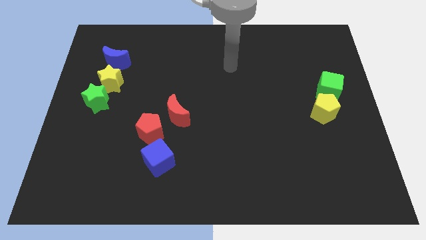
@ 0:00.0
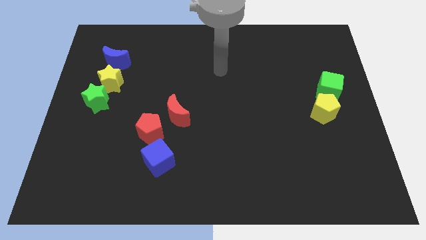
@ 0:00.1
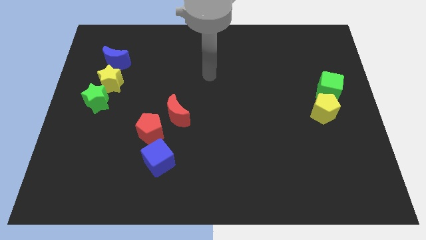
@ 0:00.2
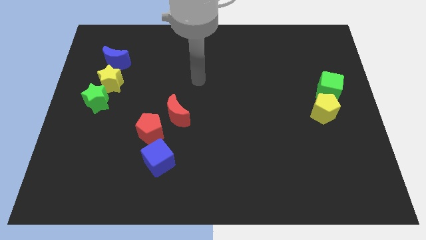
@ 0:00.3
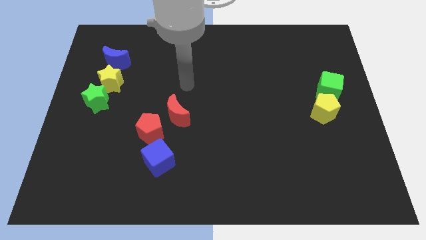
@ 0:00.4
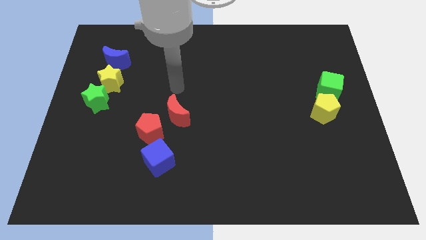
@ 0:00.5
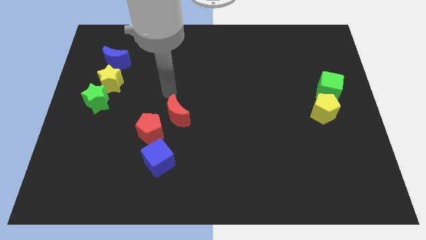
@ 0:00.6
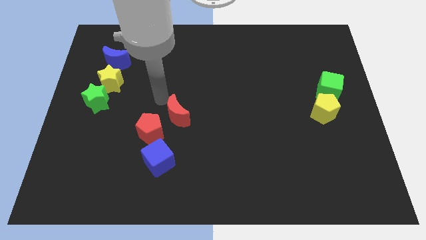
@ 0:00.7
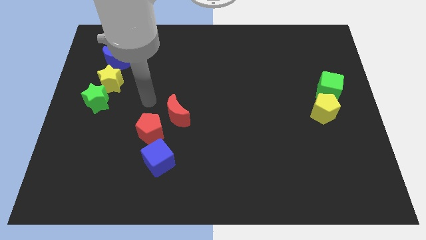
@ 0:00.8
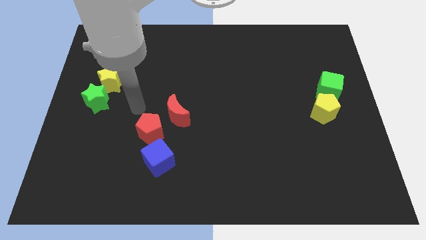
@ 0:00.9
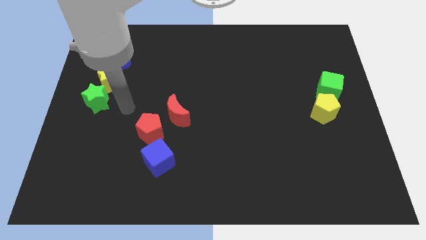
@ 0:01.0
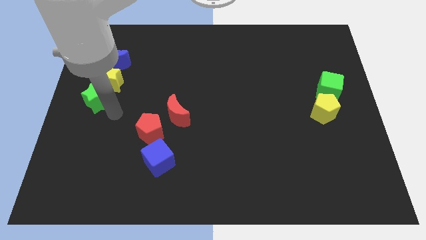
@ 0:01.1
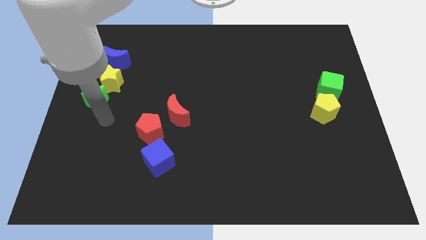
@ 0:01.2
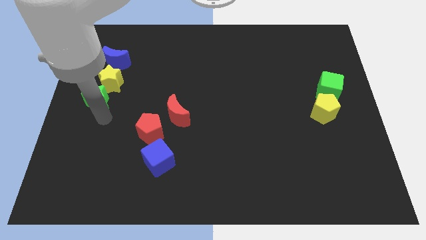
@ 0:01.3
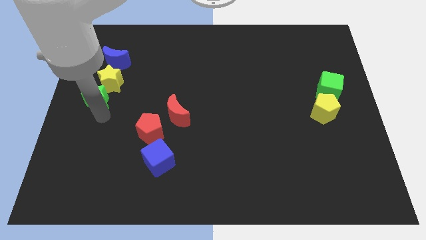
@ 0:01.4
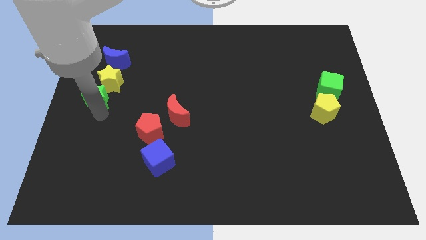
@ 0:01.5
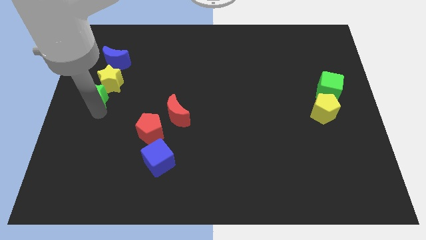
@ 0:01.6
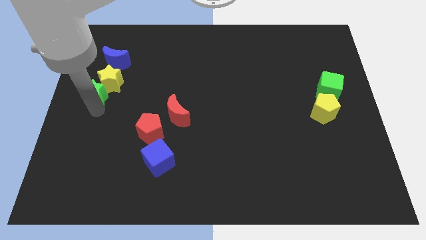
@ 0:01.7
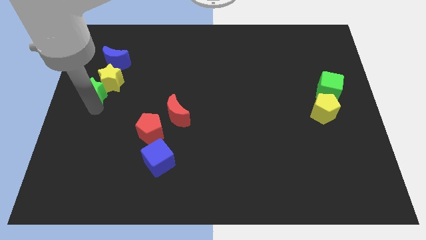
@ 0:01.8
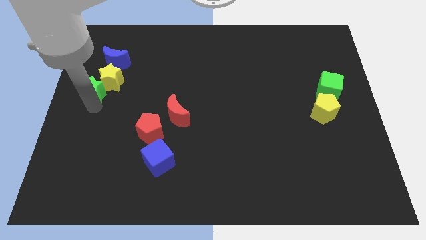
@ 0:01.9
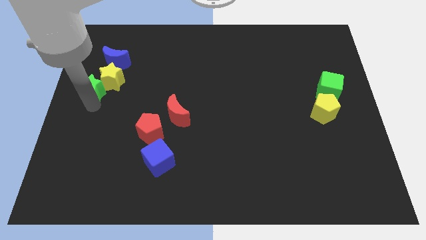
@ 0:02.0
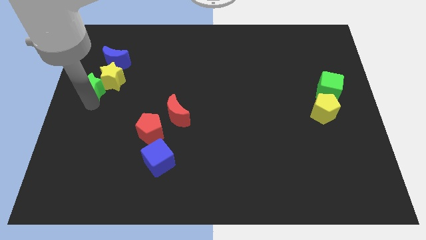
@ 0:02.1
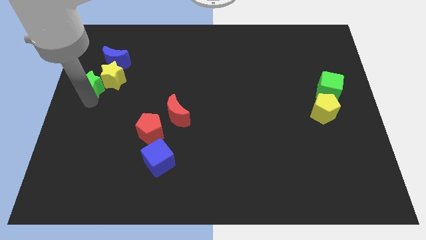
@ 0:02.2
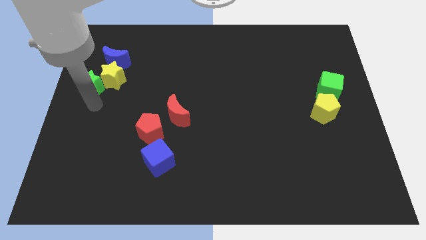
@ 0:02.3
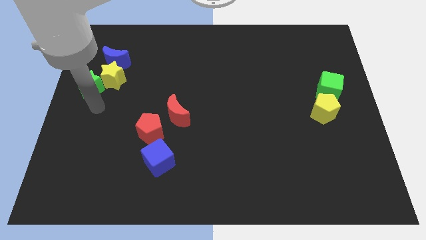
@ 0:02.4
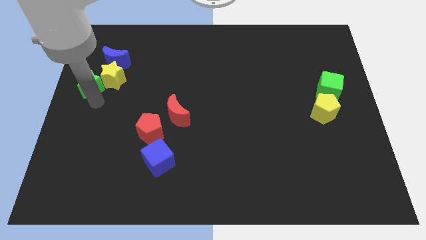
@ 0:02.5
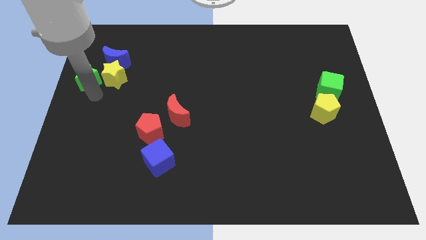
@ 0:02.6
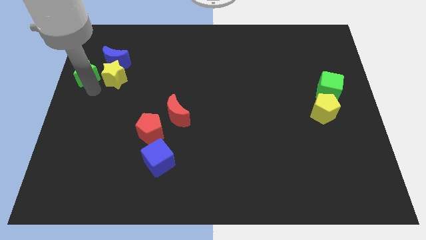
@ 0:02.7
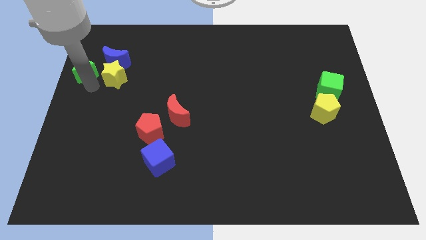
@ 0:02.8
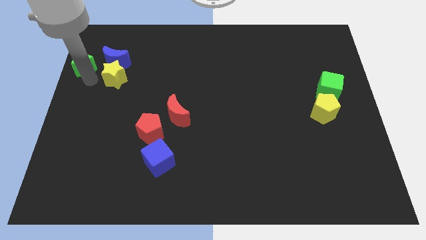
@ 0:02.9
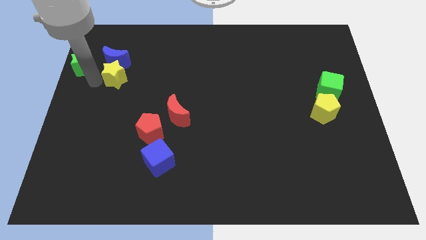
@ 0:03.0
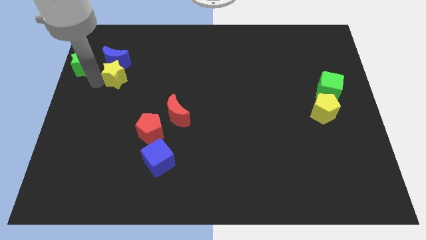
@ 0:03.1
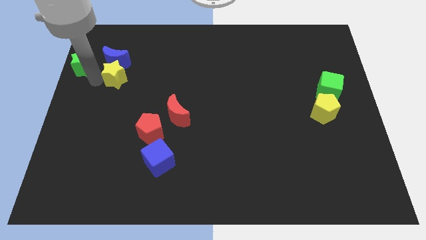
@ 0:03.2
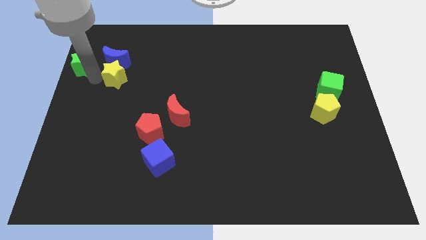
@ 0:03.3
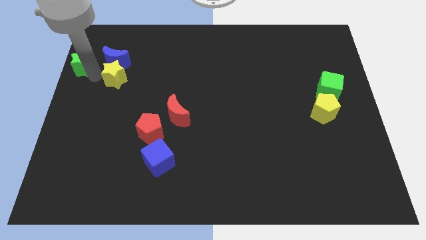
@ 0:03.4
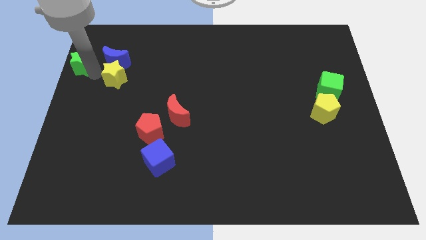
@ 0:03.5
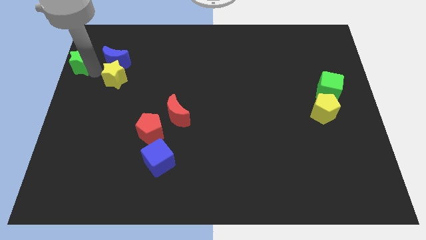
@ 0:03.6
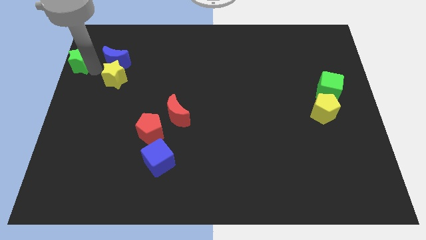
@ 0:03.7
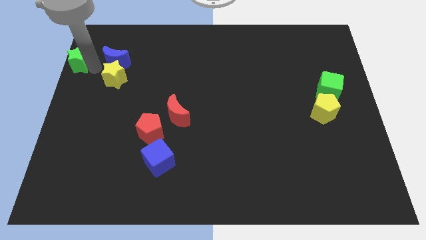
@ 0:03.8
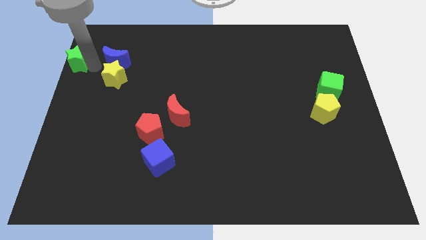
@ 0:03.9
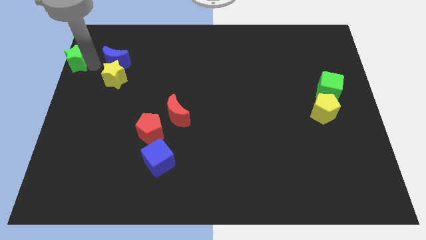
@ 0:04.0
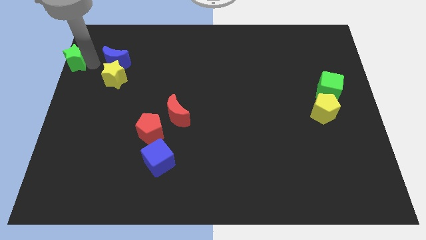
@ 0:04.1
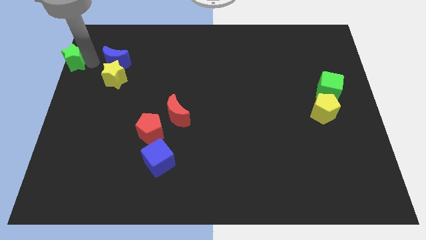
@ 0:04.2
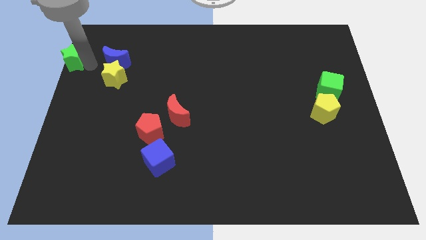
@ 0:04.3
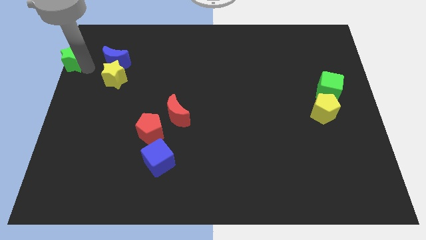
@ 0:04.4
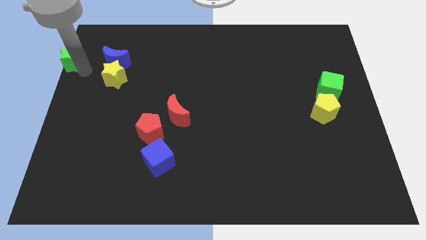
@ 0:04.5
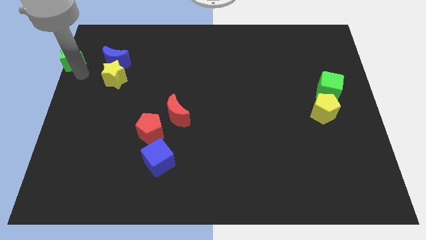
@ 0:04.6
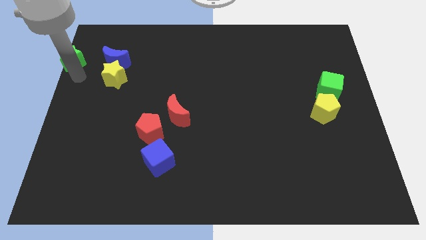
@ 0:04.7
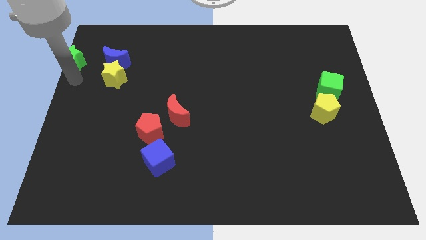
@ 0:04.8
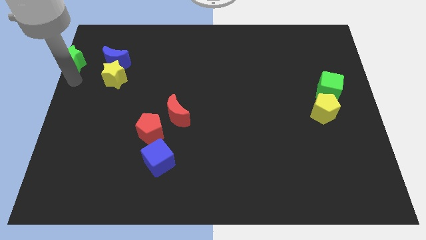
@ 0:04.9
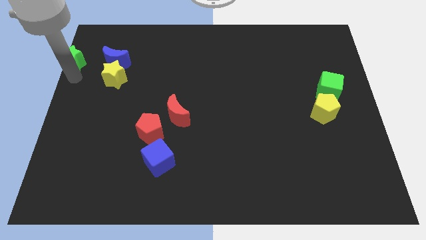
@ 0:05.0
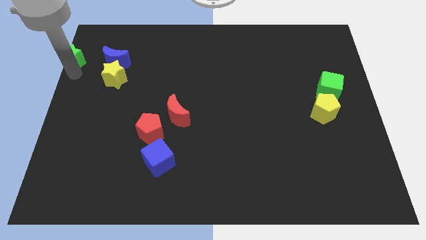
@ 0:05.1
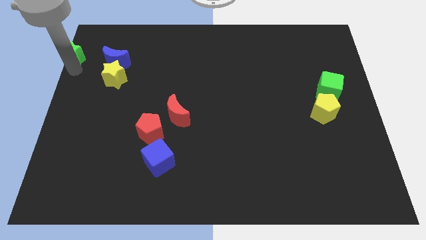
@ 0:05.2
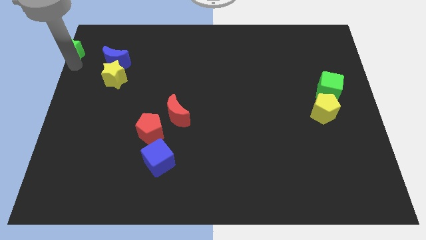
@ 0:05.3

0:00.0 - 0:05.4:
slide the green star to the top left of the board
